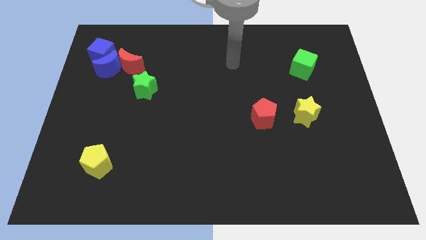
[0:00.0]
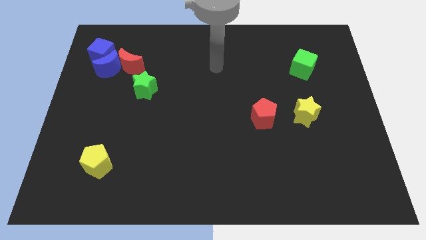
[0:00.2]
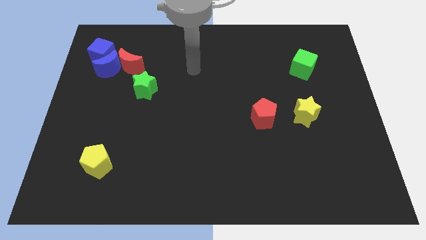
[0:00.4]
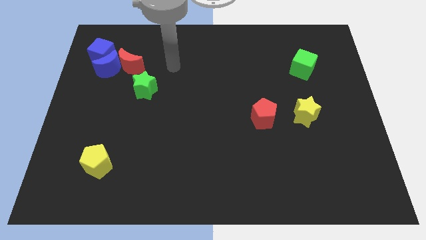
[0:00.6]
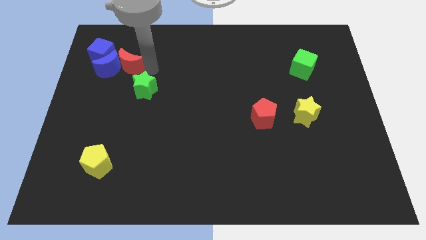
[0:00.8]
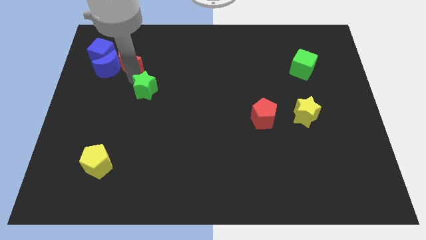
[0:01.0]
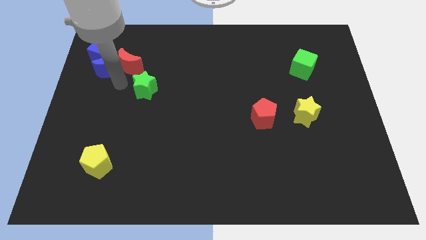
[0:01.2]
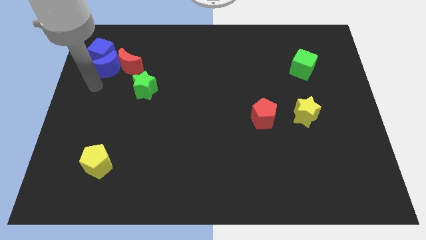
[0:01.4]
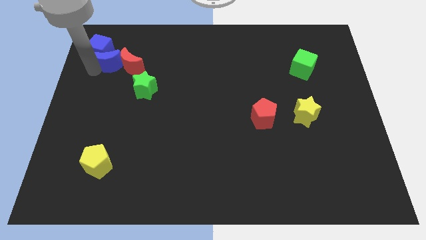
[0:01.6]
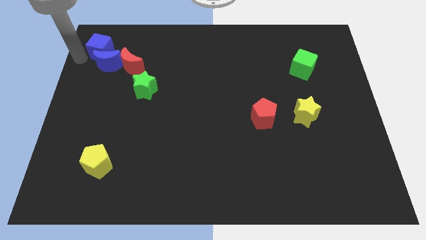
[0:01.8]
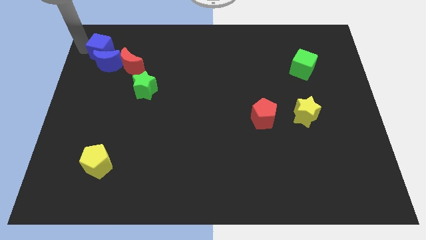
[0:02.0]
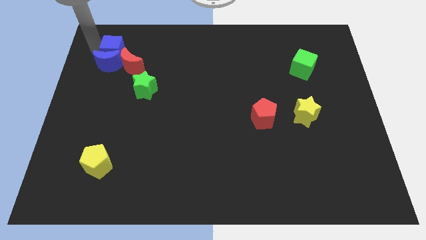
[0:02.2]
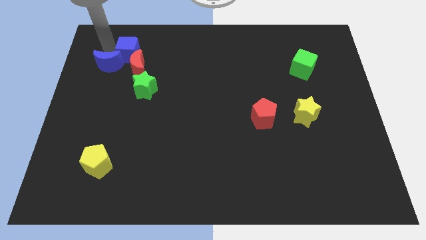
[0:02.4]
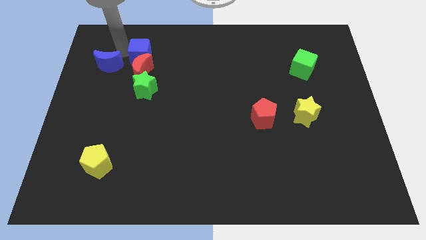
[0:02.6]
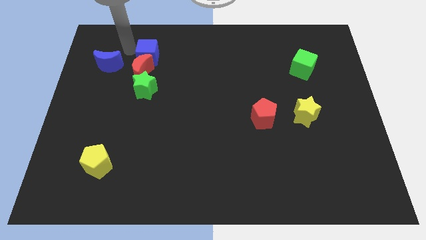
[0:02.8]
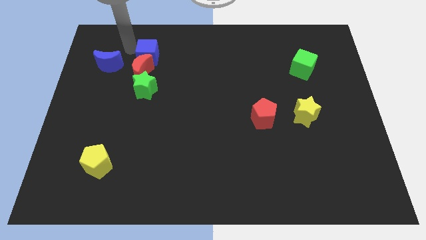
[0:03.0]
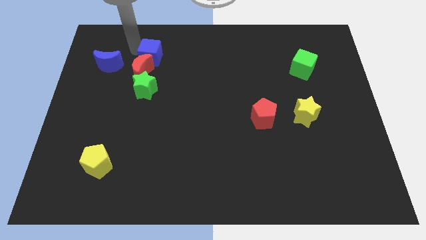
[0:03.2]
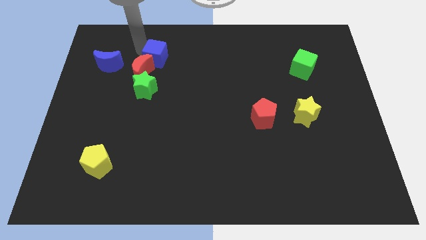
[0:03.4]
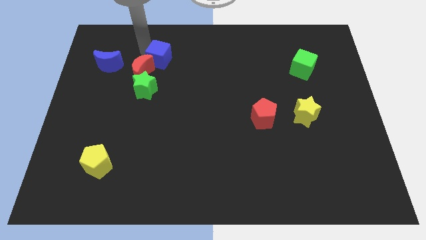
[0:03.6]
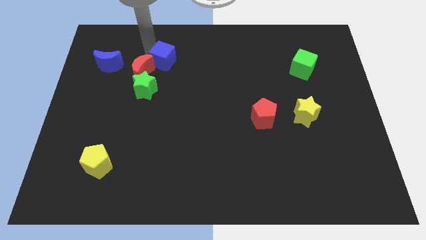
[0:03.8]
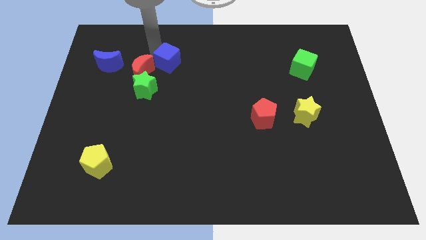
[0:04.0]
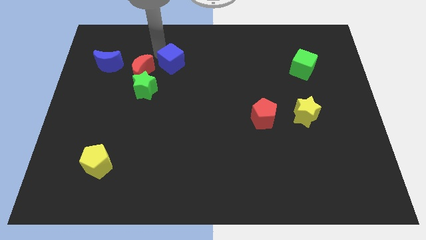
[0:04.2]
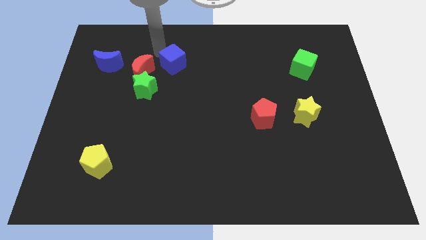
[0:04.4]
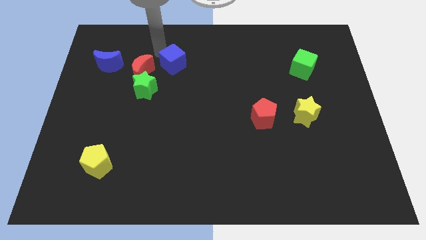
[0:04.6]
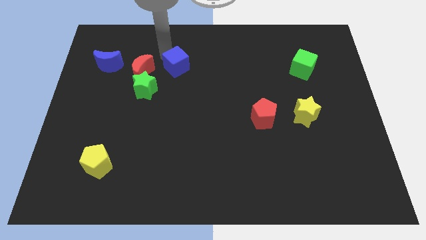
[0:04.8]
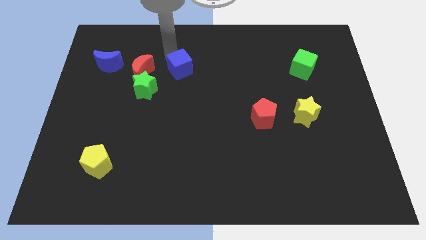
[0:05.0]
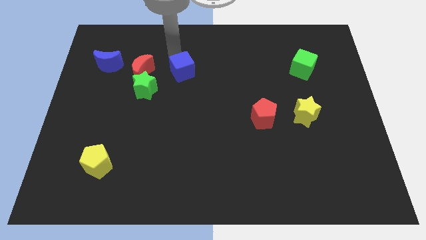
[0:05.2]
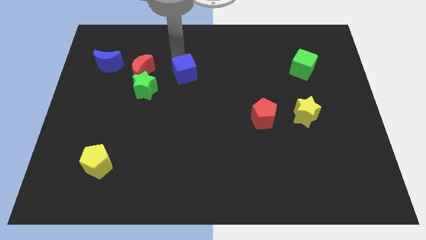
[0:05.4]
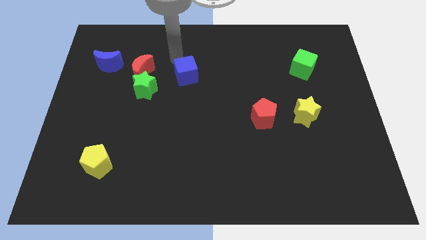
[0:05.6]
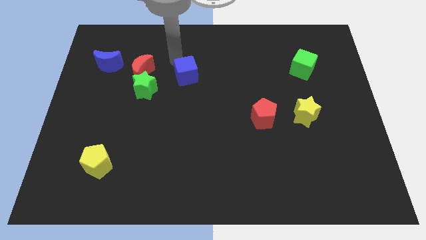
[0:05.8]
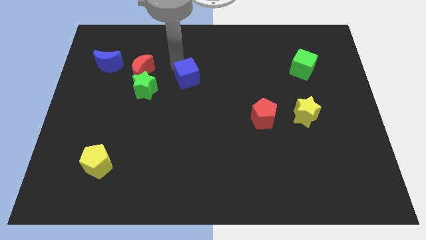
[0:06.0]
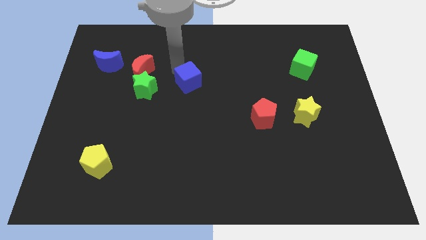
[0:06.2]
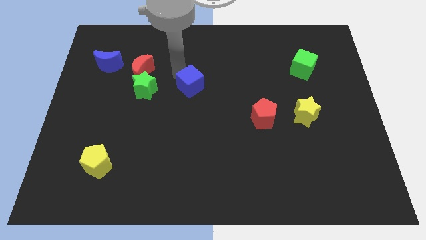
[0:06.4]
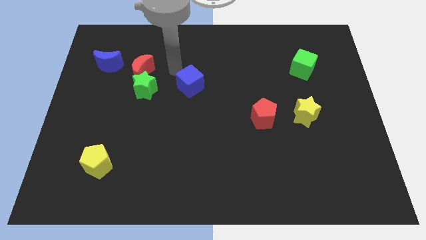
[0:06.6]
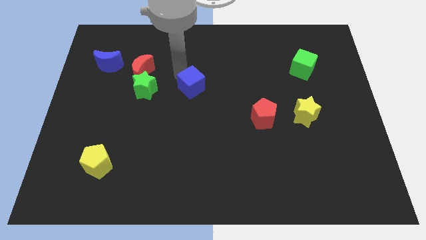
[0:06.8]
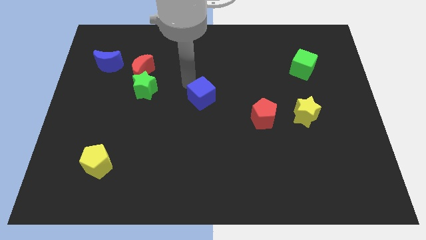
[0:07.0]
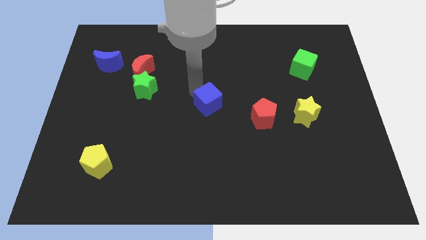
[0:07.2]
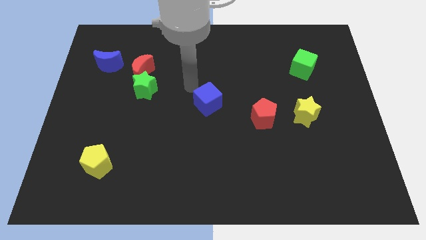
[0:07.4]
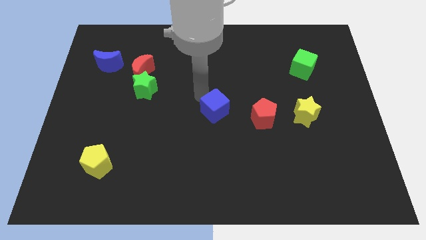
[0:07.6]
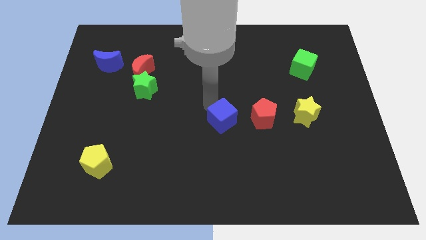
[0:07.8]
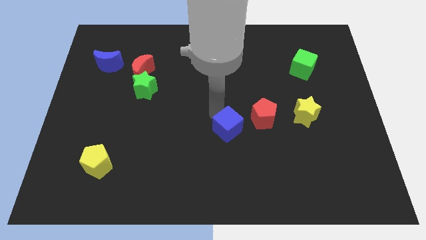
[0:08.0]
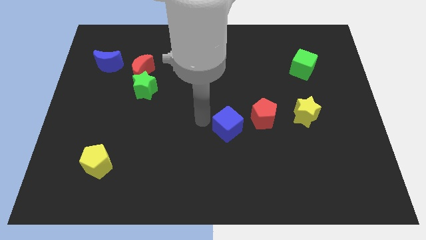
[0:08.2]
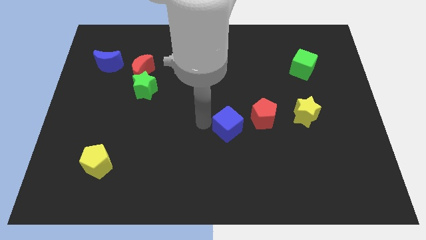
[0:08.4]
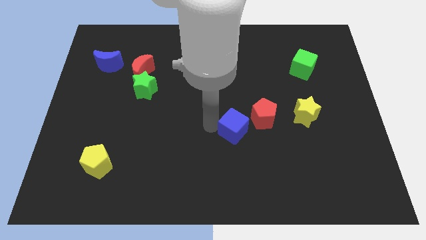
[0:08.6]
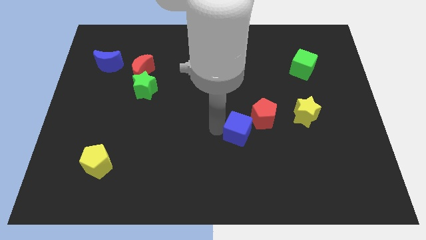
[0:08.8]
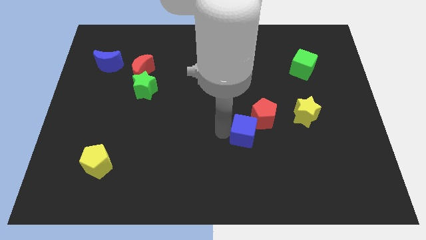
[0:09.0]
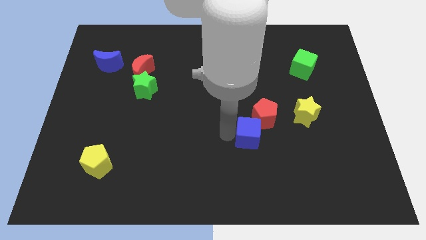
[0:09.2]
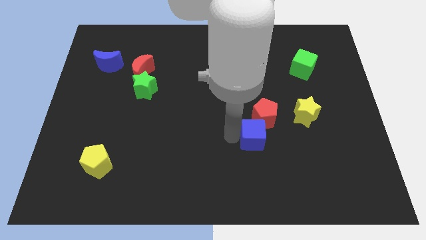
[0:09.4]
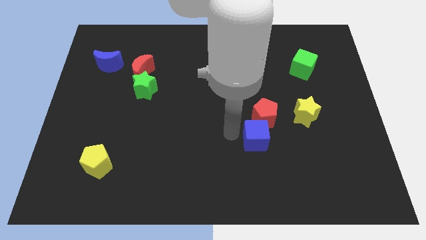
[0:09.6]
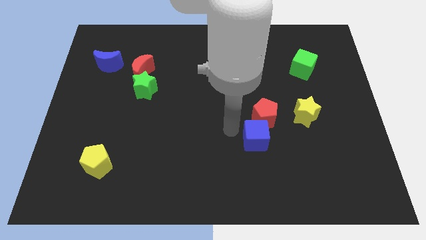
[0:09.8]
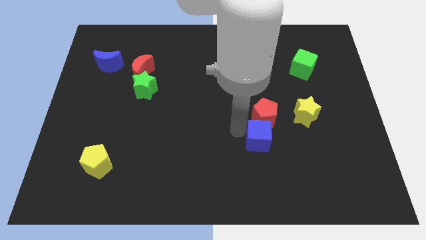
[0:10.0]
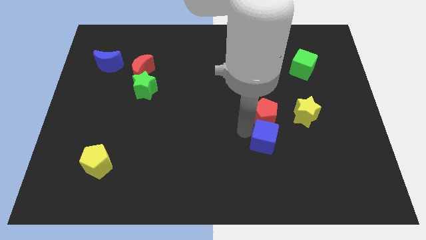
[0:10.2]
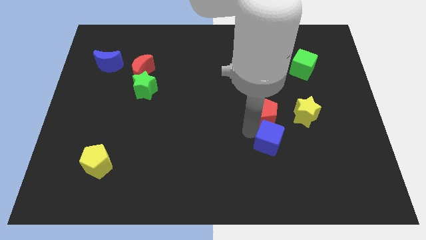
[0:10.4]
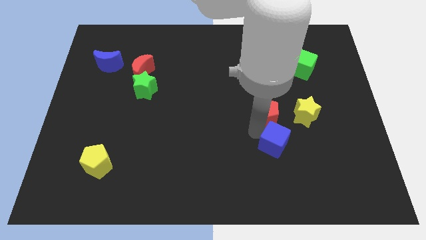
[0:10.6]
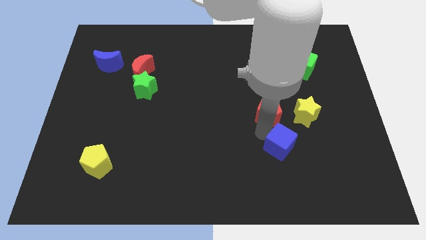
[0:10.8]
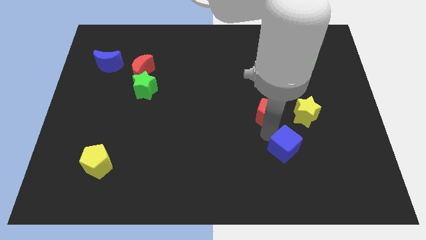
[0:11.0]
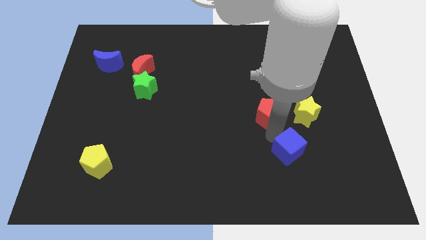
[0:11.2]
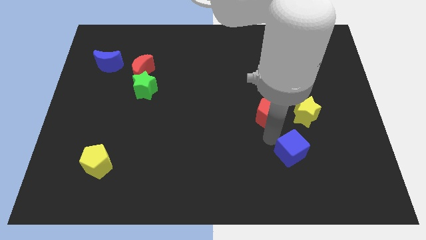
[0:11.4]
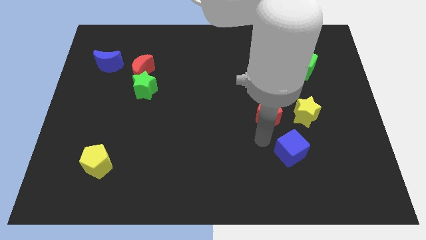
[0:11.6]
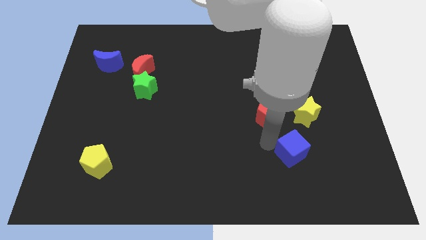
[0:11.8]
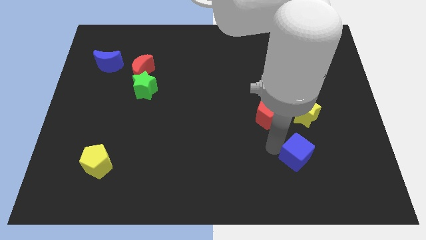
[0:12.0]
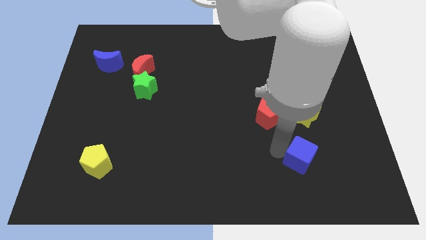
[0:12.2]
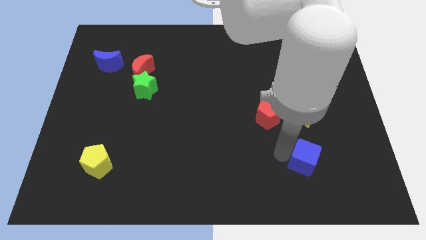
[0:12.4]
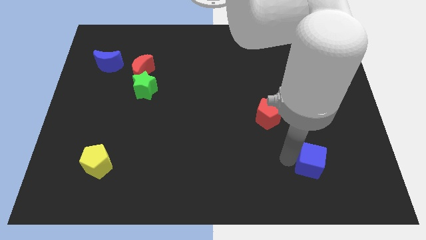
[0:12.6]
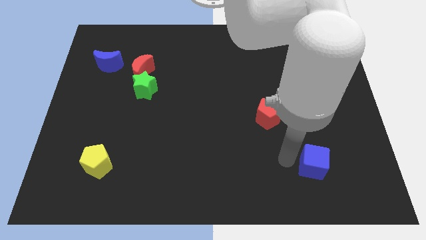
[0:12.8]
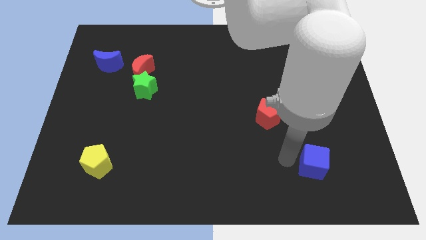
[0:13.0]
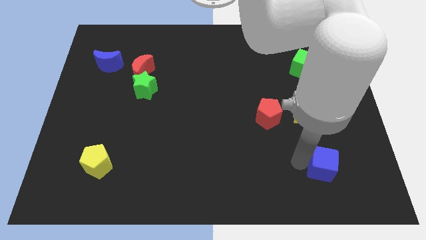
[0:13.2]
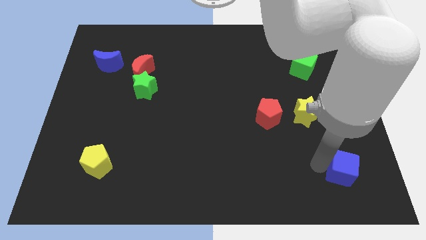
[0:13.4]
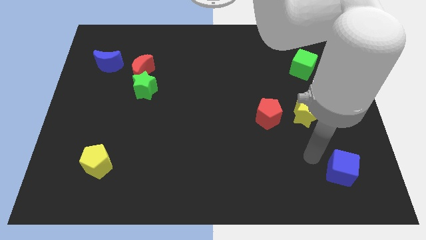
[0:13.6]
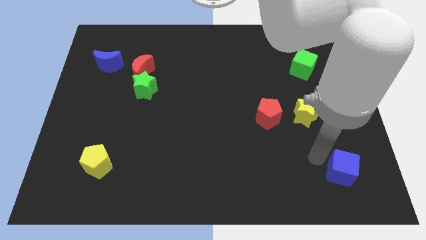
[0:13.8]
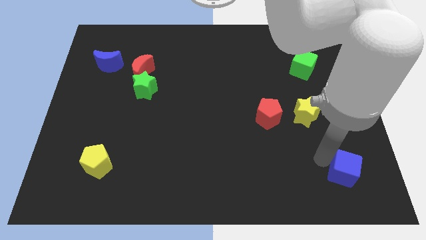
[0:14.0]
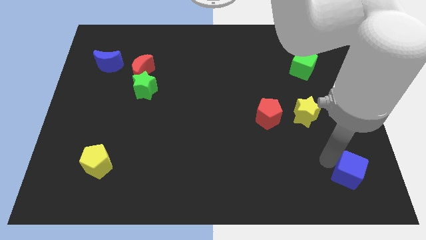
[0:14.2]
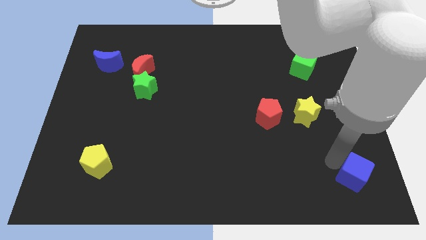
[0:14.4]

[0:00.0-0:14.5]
put the blue cube to the bottom right
